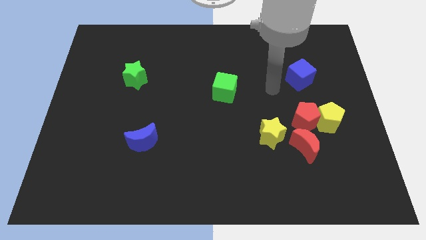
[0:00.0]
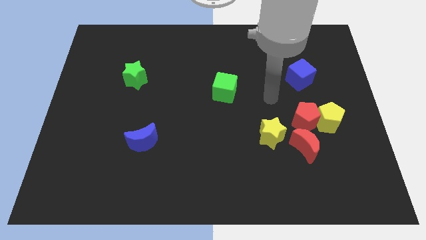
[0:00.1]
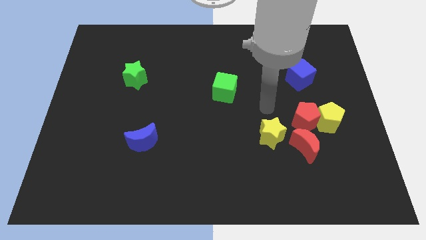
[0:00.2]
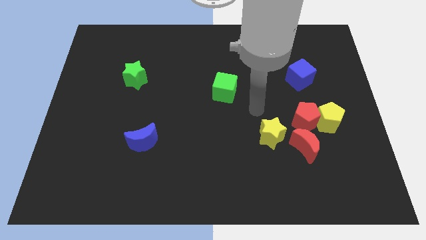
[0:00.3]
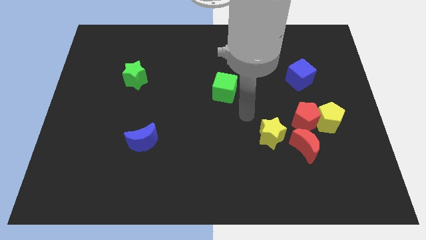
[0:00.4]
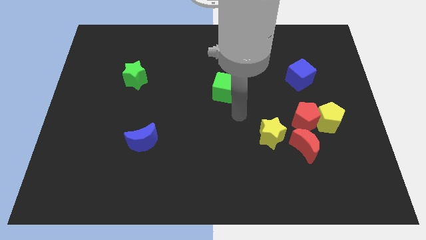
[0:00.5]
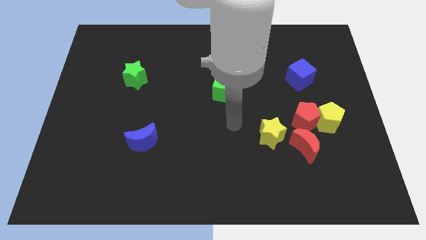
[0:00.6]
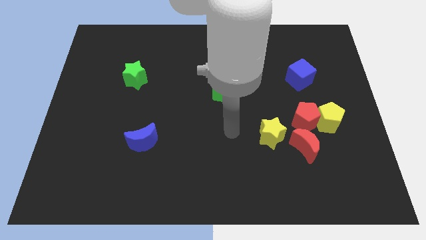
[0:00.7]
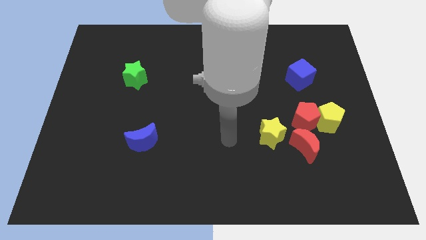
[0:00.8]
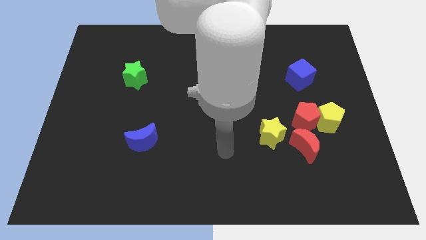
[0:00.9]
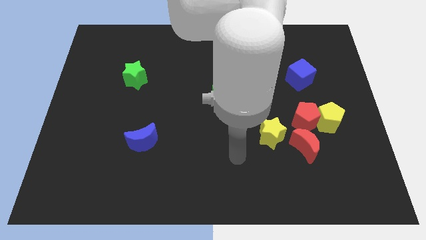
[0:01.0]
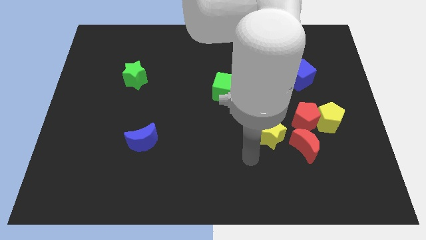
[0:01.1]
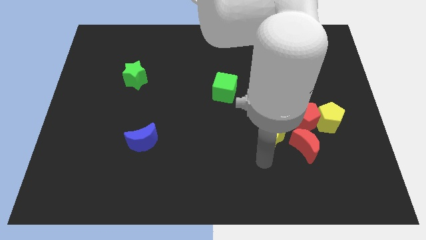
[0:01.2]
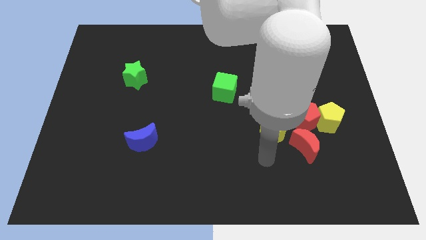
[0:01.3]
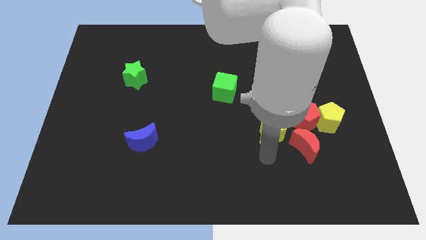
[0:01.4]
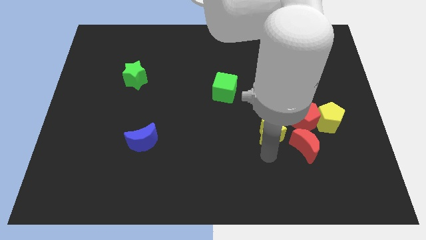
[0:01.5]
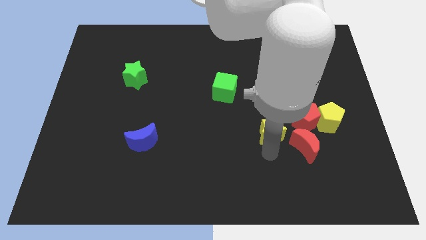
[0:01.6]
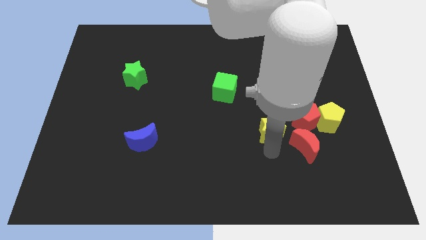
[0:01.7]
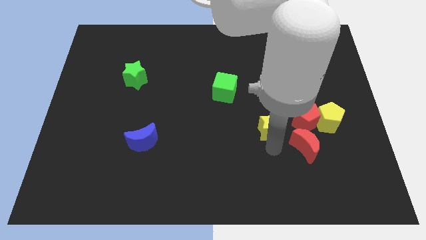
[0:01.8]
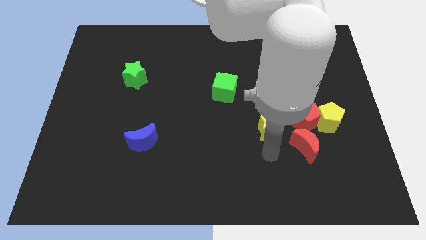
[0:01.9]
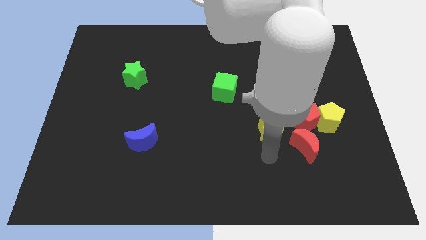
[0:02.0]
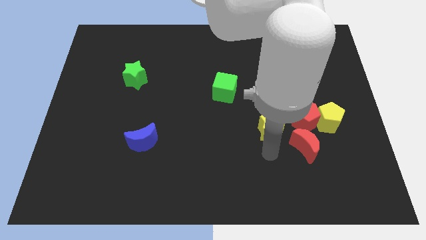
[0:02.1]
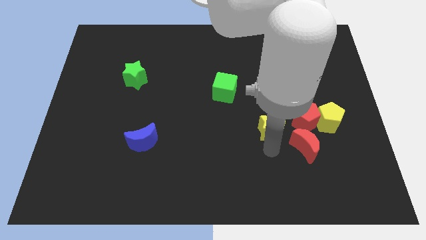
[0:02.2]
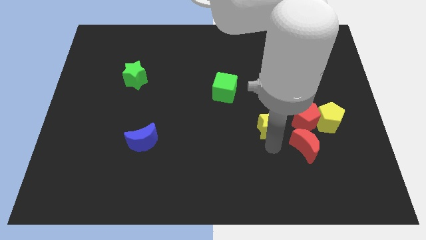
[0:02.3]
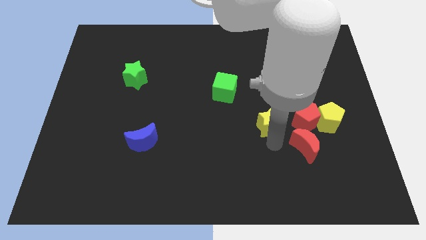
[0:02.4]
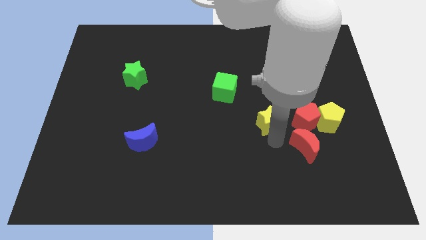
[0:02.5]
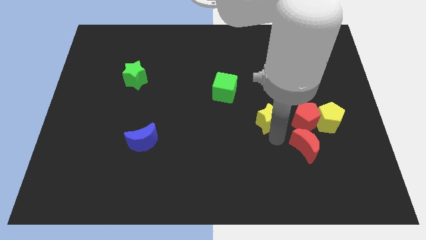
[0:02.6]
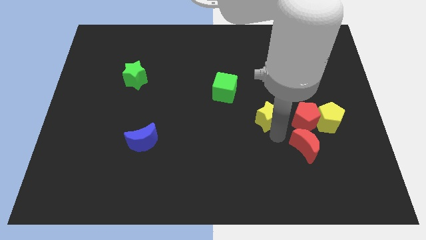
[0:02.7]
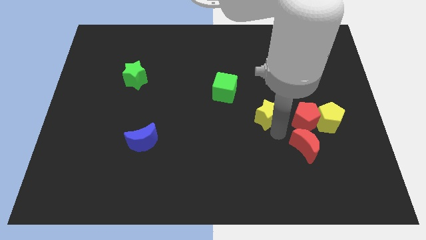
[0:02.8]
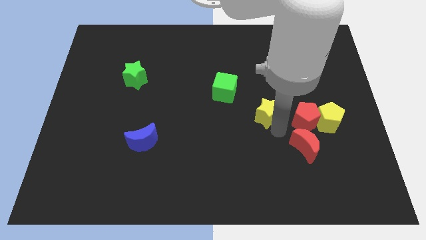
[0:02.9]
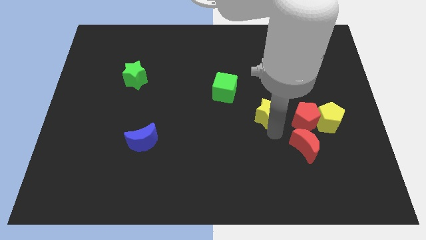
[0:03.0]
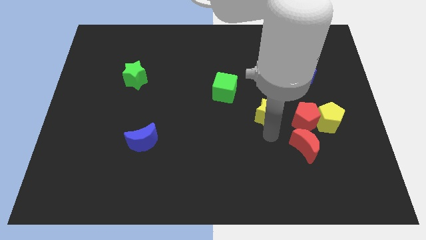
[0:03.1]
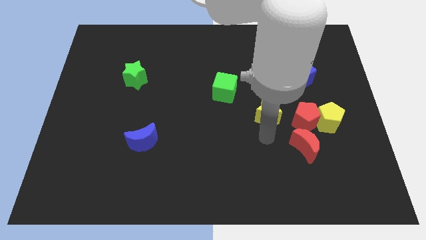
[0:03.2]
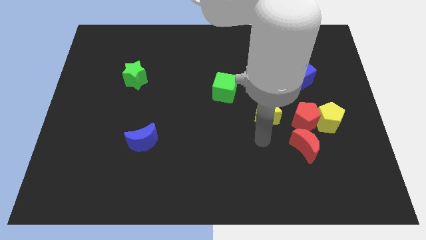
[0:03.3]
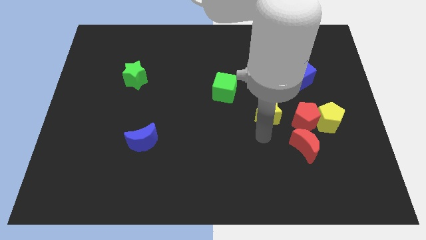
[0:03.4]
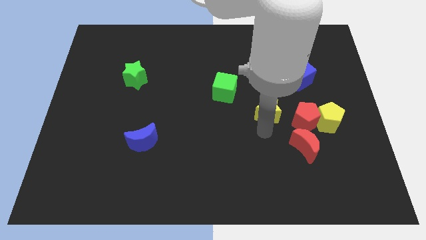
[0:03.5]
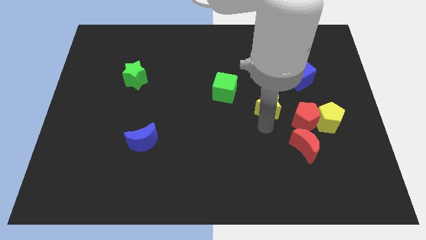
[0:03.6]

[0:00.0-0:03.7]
slightly slide the yellow star up

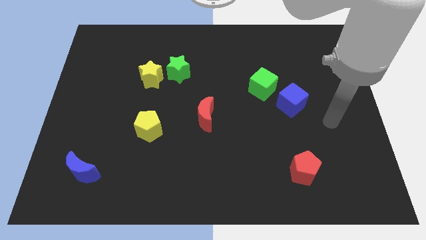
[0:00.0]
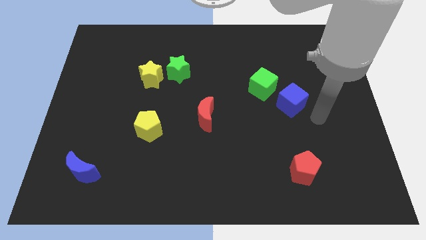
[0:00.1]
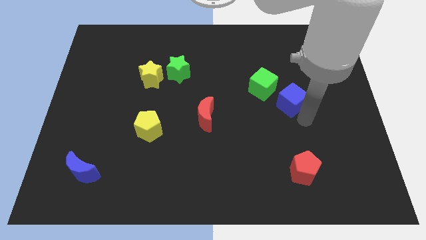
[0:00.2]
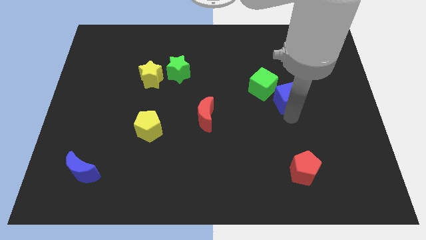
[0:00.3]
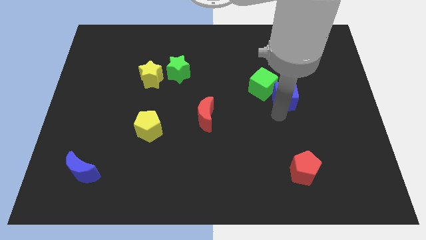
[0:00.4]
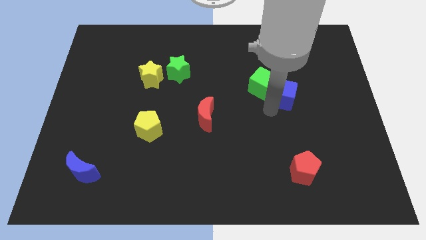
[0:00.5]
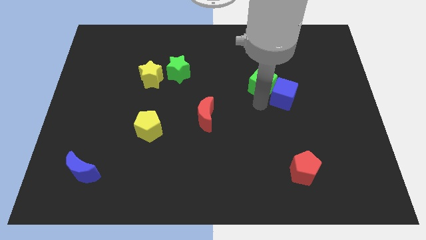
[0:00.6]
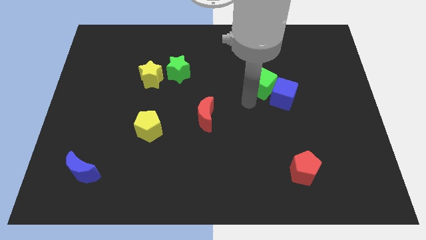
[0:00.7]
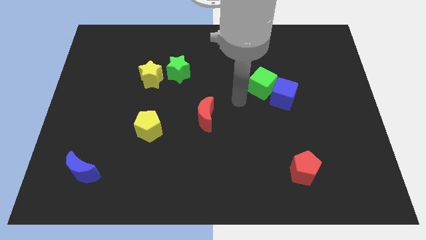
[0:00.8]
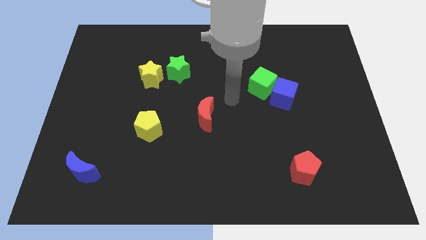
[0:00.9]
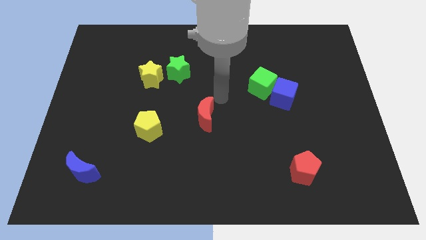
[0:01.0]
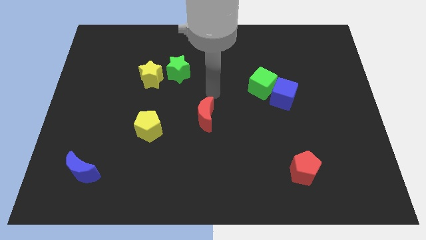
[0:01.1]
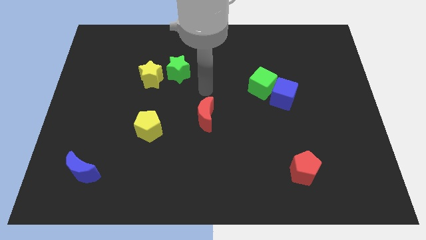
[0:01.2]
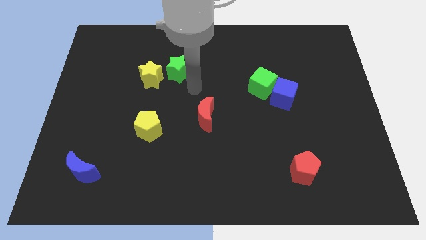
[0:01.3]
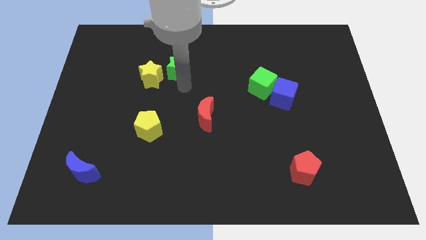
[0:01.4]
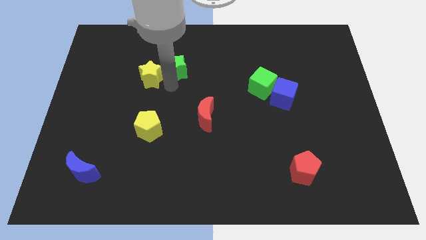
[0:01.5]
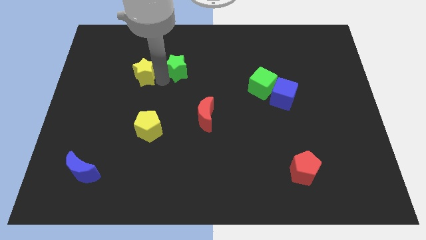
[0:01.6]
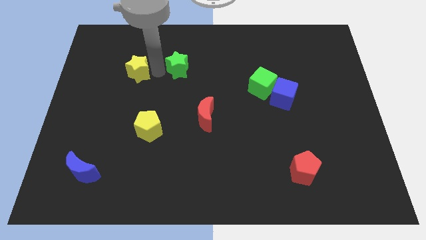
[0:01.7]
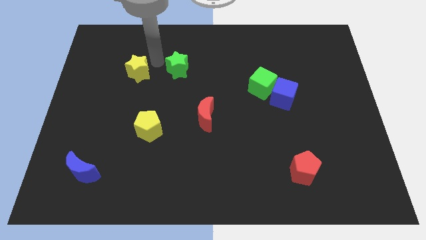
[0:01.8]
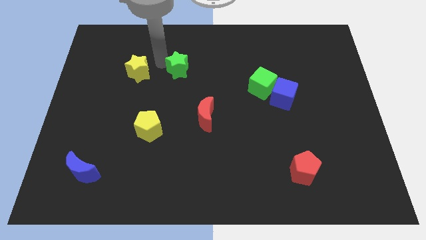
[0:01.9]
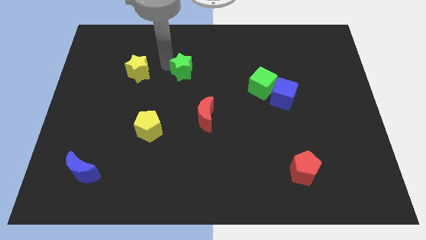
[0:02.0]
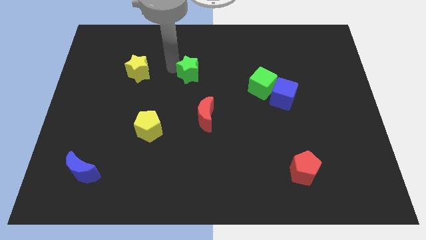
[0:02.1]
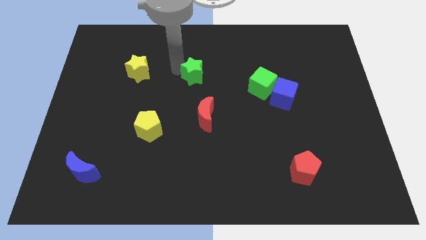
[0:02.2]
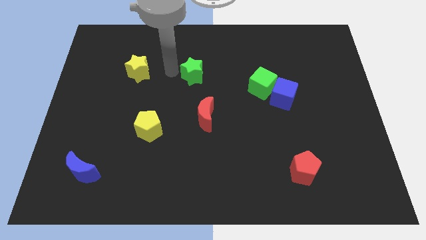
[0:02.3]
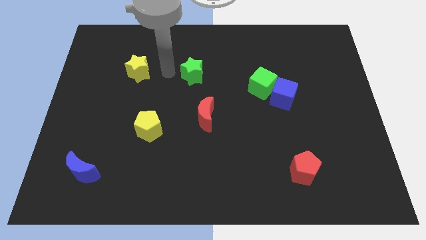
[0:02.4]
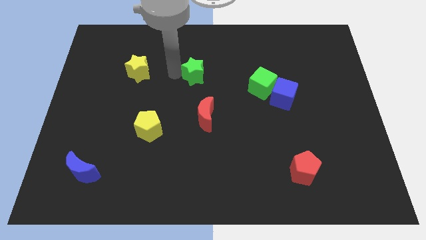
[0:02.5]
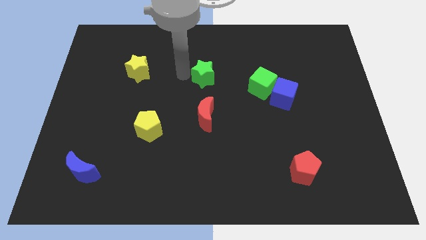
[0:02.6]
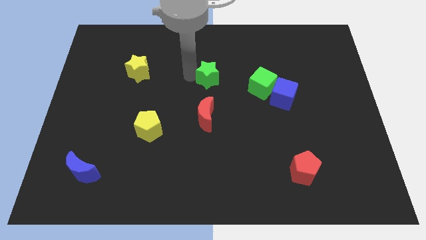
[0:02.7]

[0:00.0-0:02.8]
move the green star to the right a bit

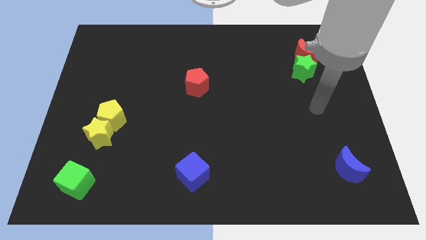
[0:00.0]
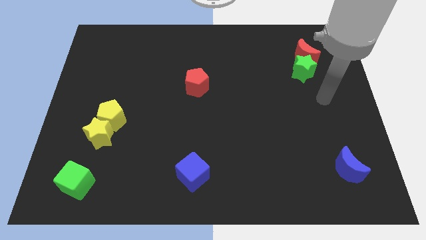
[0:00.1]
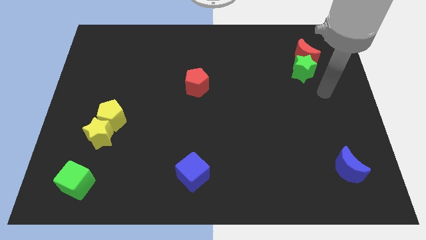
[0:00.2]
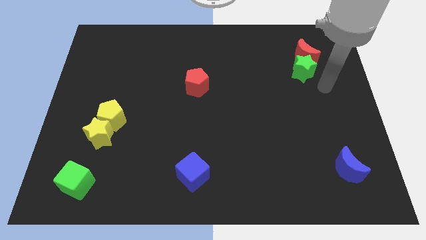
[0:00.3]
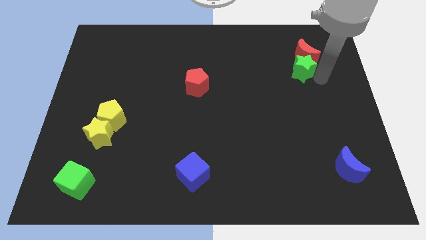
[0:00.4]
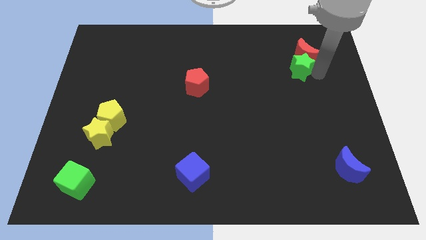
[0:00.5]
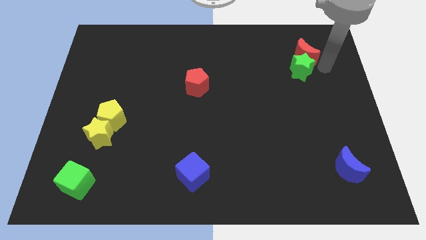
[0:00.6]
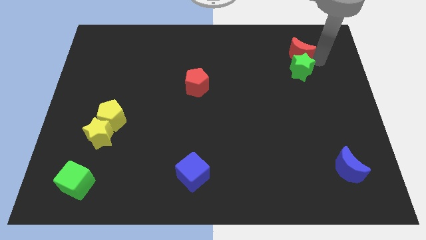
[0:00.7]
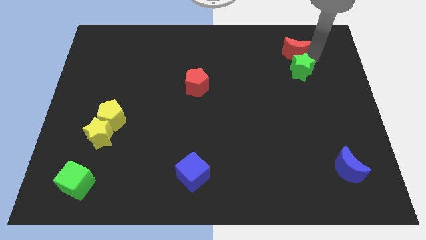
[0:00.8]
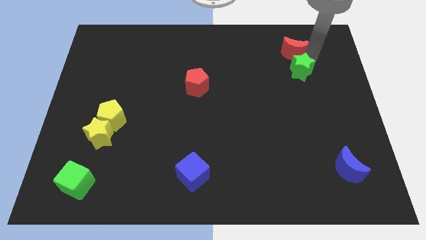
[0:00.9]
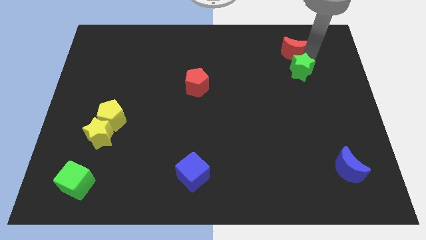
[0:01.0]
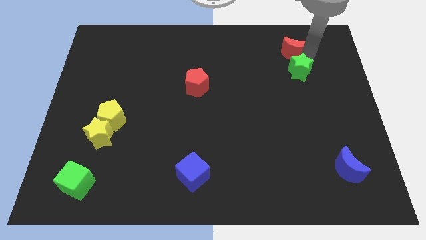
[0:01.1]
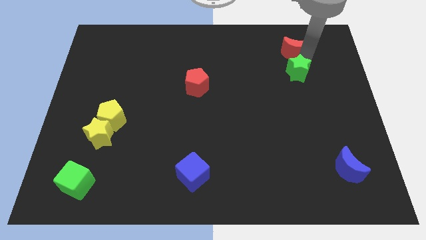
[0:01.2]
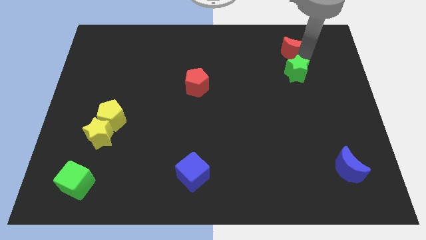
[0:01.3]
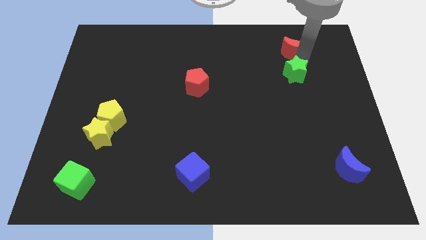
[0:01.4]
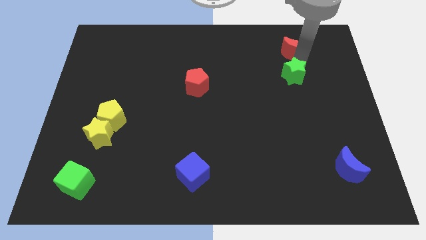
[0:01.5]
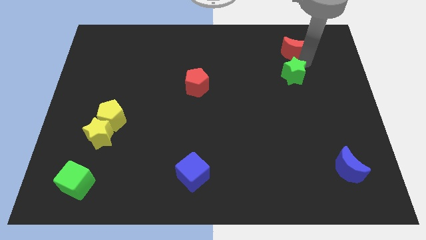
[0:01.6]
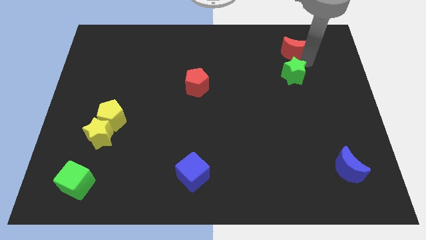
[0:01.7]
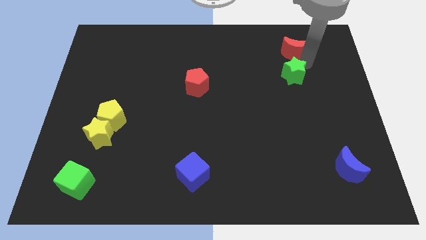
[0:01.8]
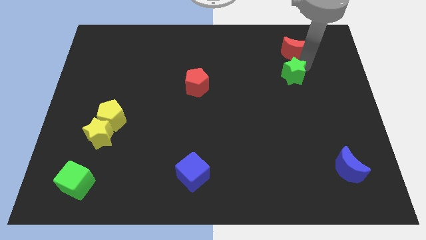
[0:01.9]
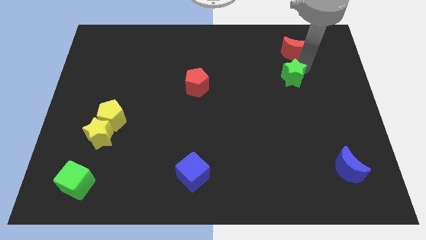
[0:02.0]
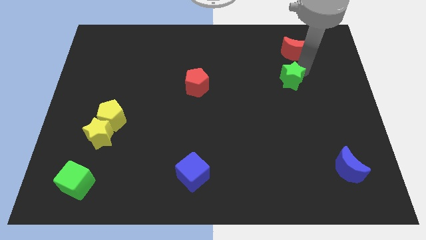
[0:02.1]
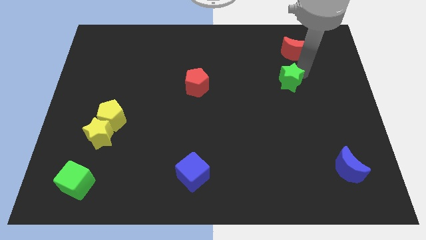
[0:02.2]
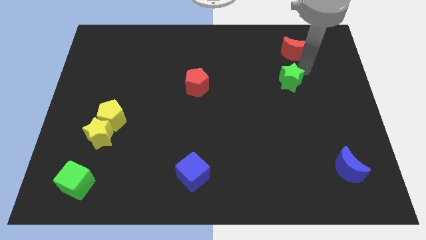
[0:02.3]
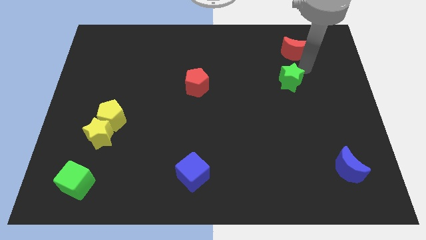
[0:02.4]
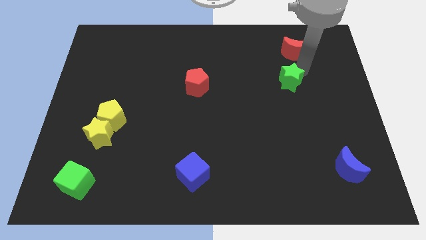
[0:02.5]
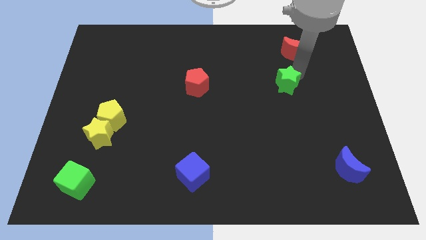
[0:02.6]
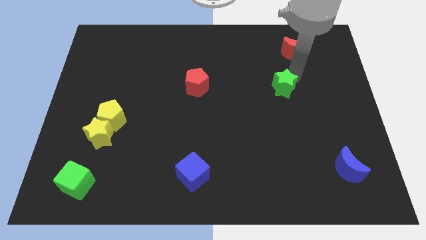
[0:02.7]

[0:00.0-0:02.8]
slide the green star slightly downwards and left
